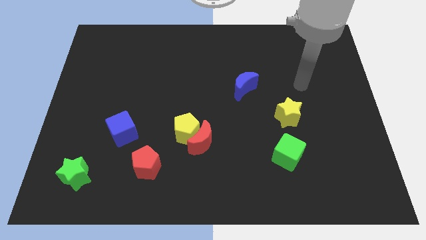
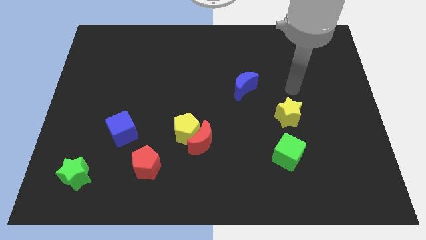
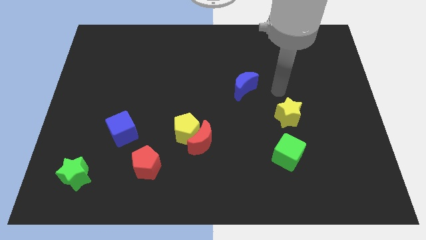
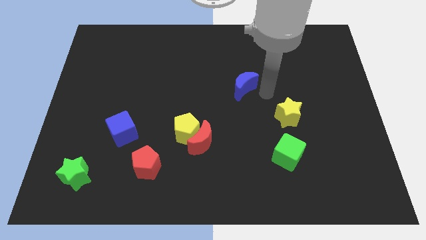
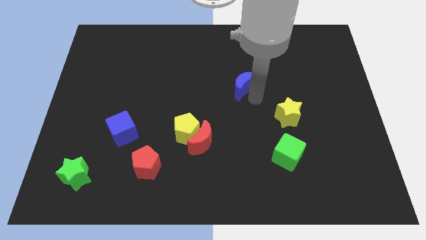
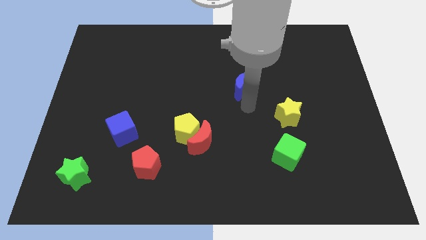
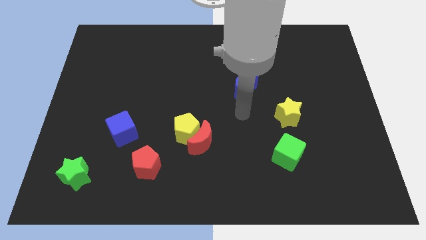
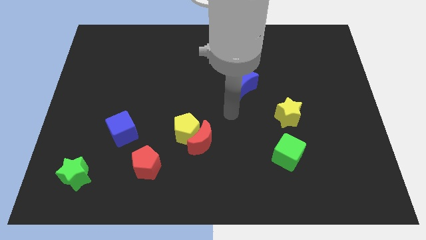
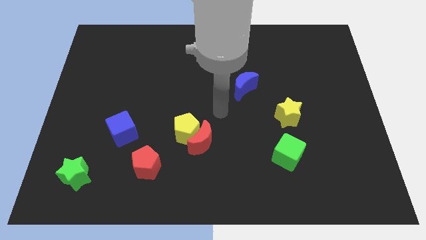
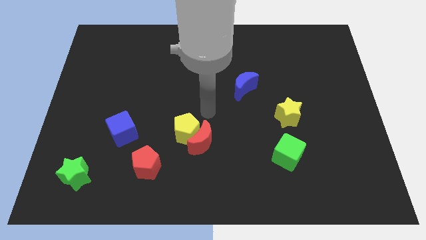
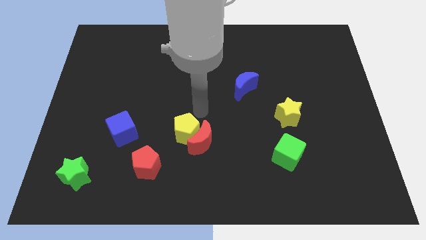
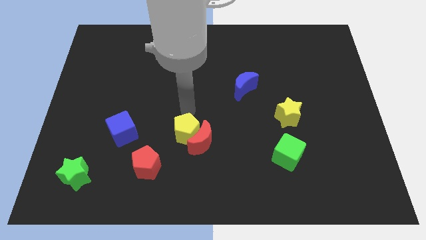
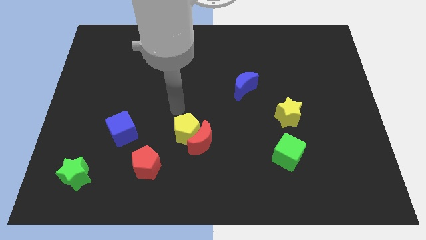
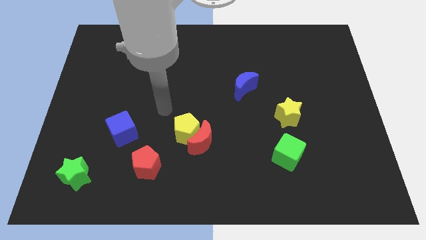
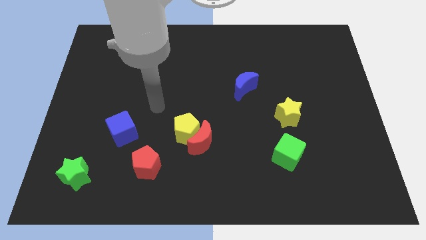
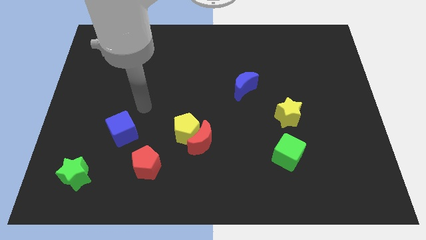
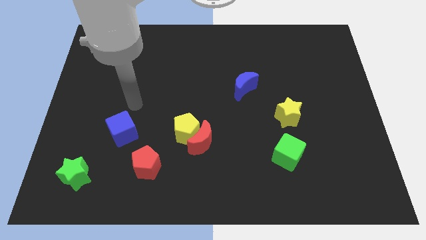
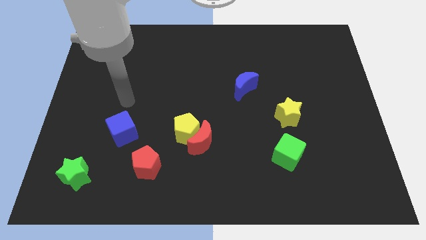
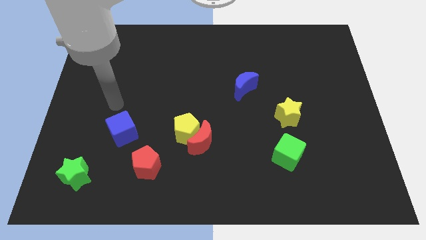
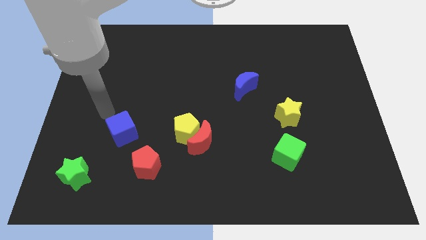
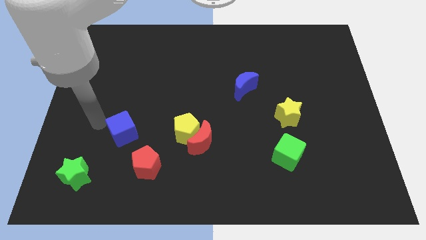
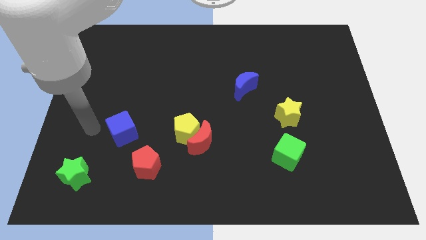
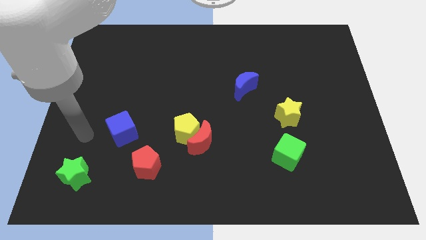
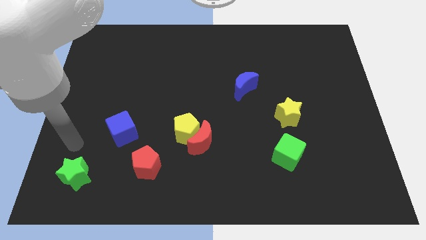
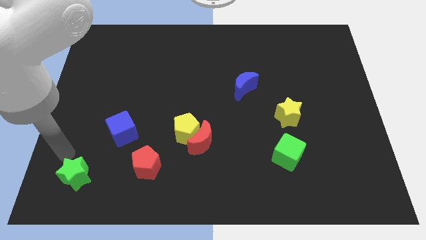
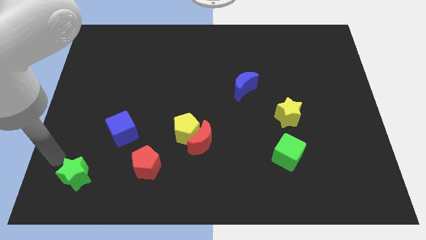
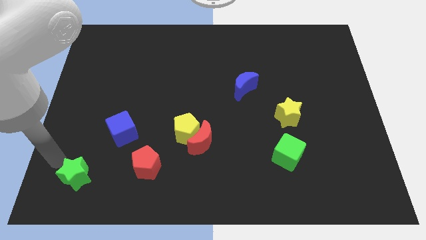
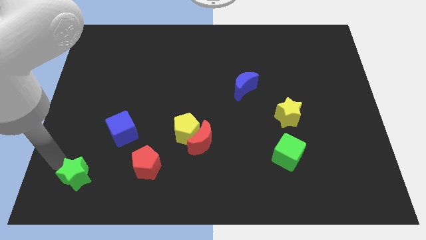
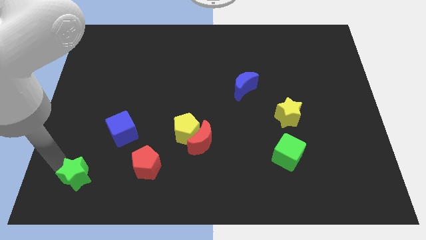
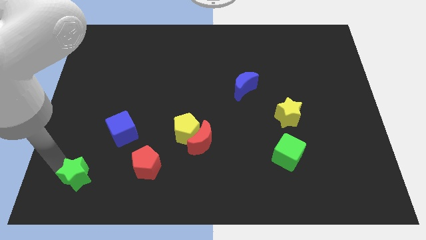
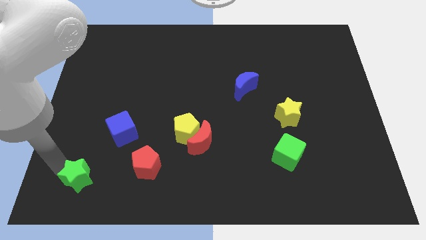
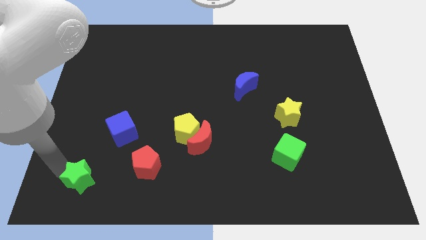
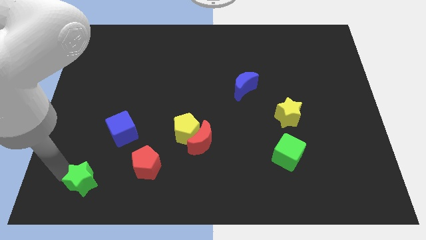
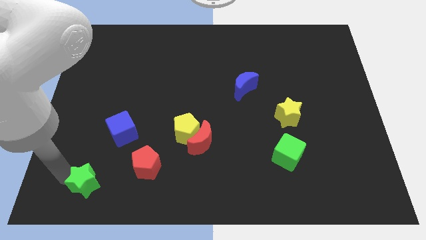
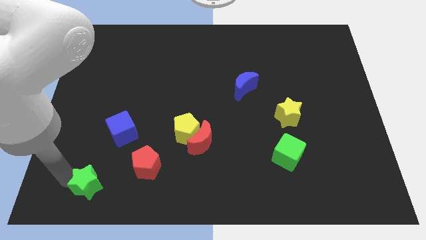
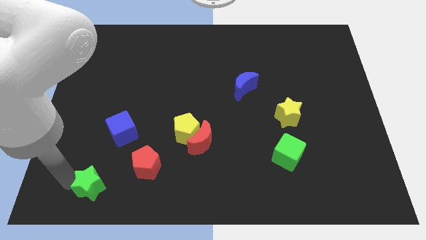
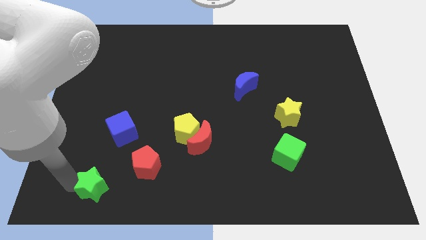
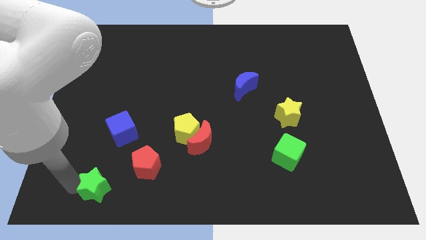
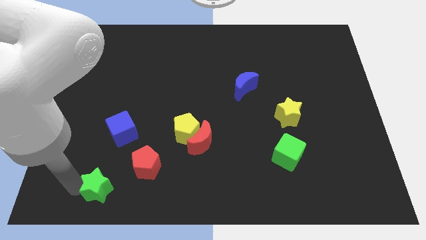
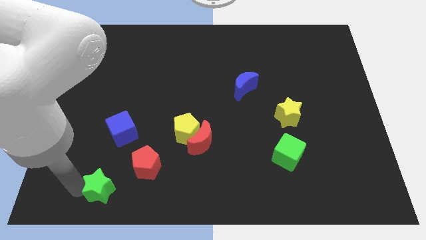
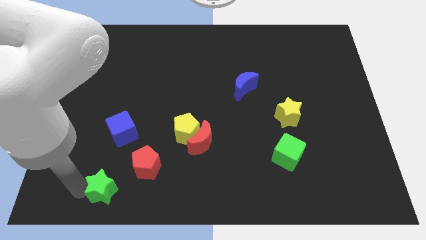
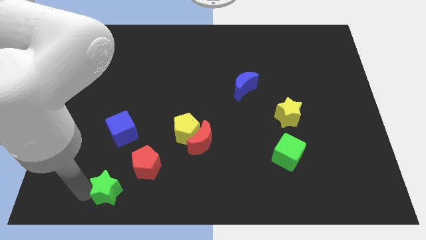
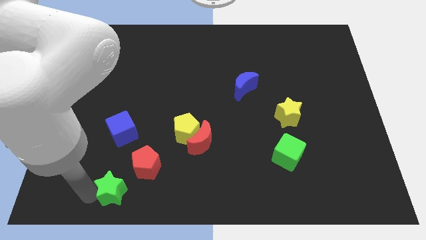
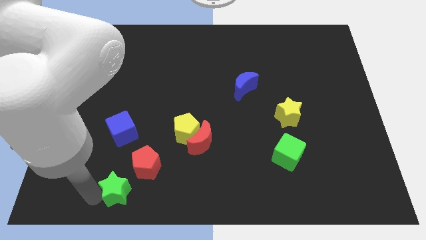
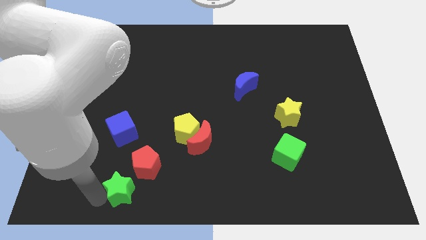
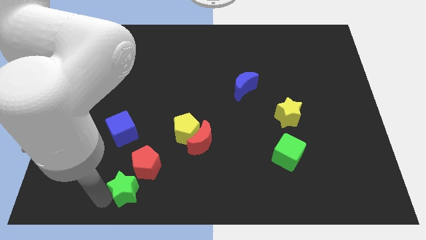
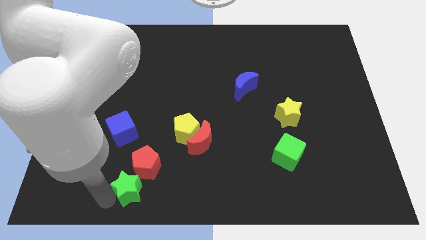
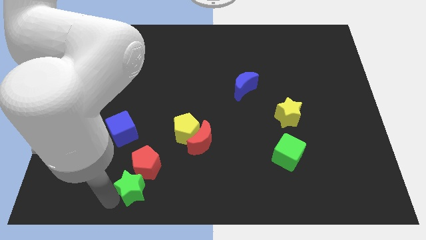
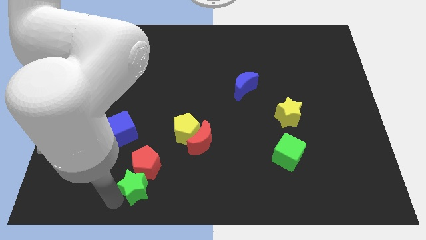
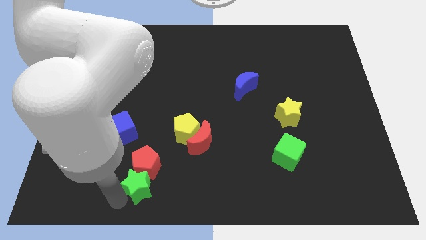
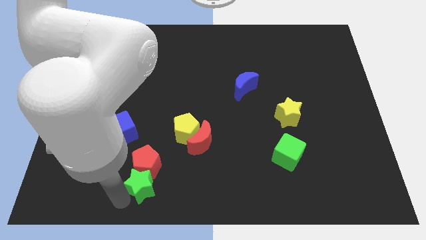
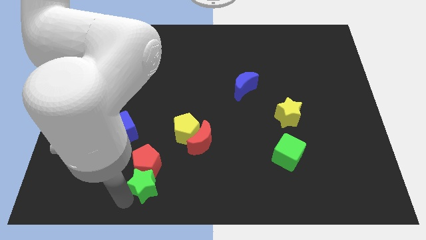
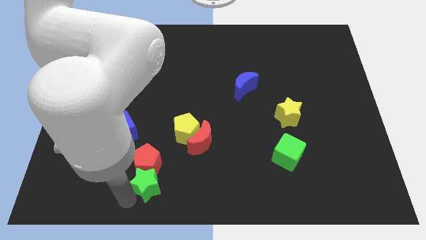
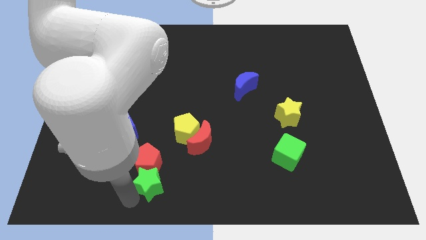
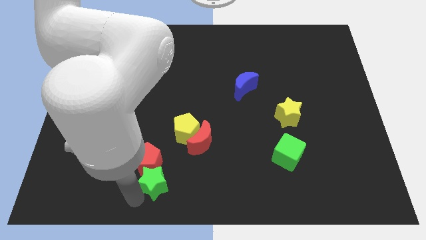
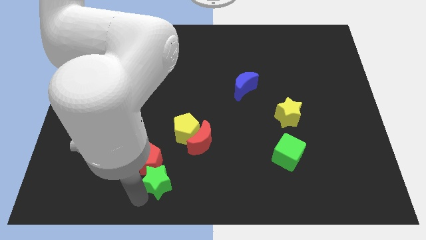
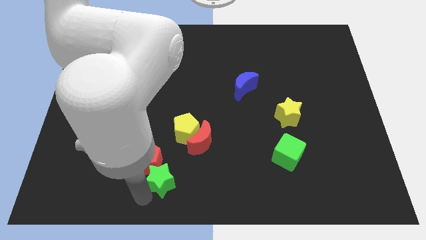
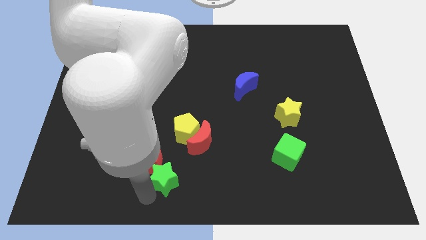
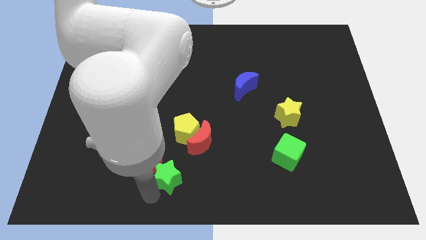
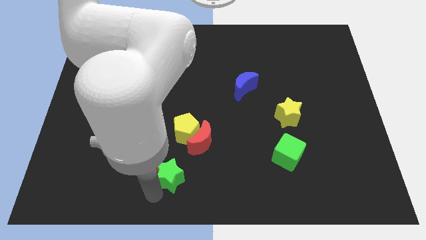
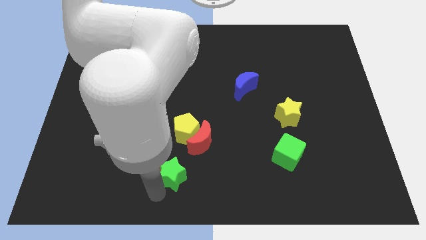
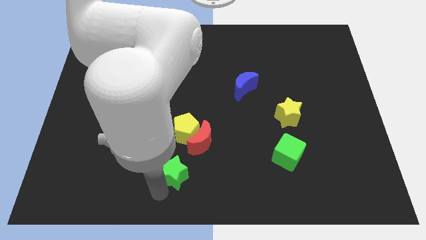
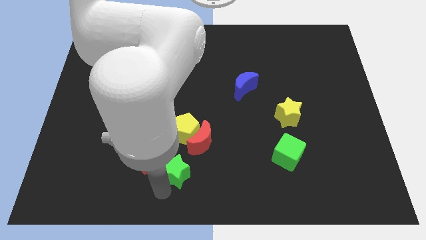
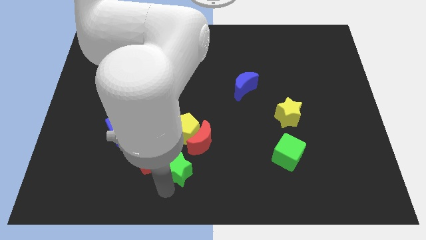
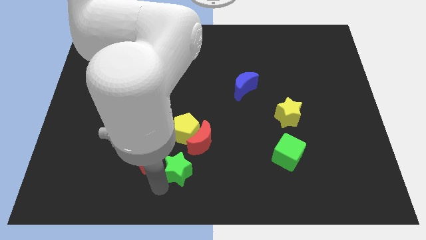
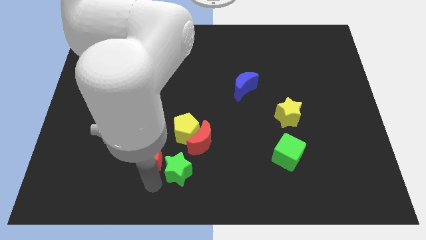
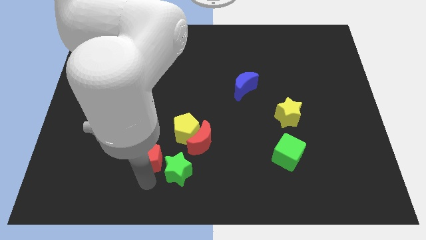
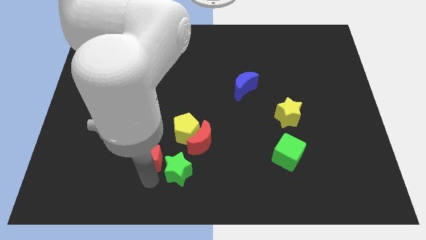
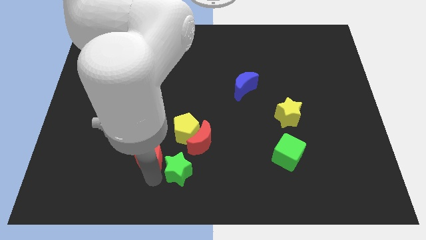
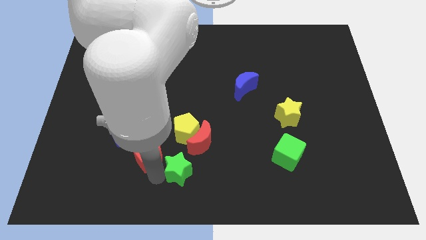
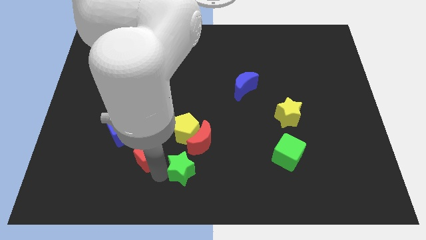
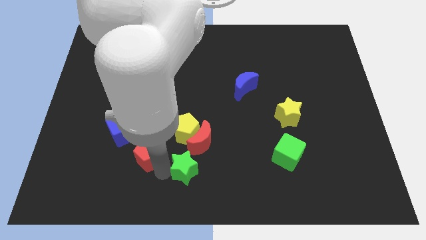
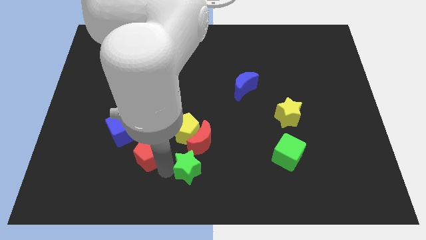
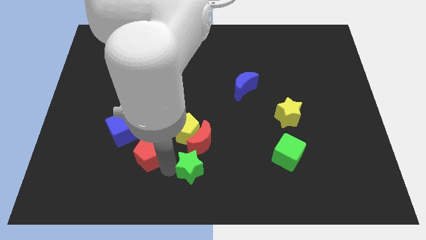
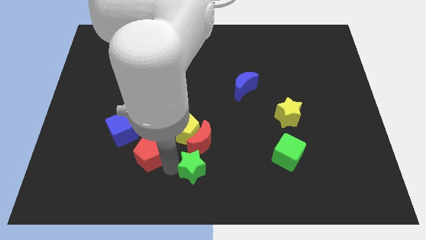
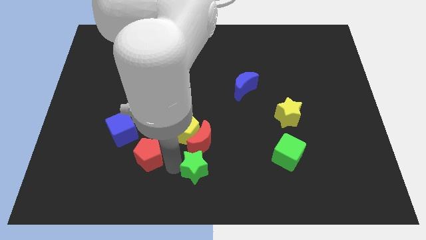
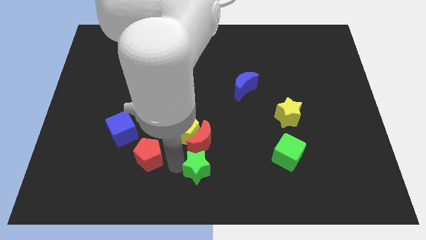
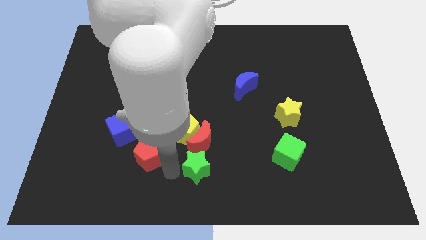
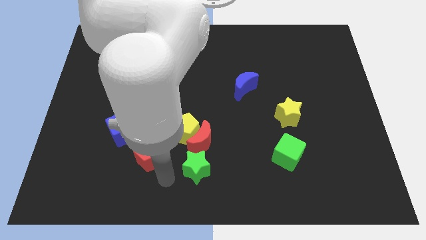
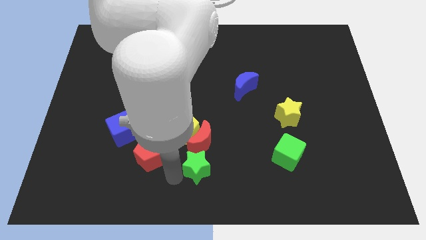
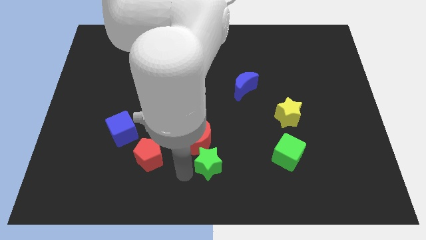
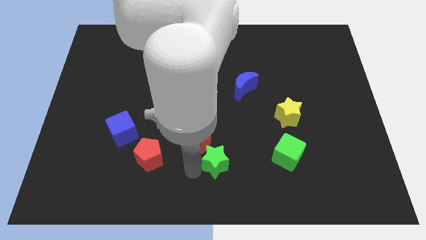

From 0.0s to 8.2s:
push the green star just left of the green cube
